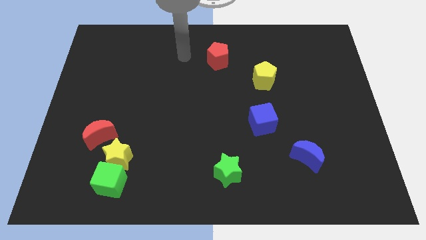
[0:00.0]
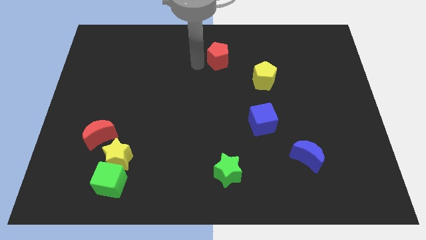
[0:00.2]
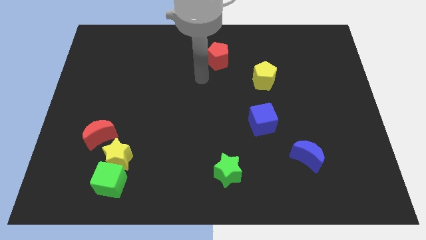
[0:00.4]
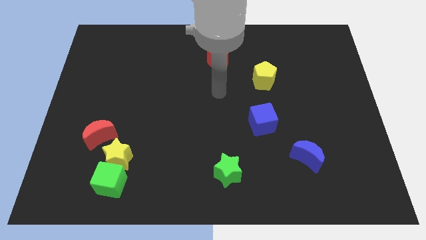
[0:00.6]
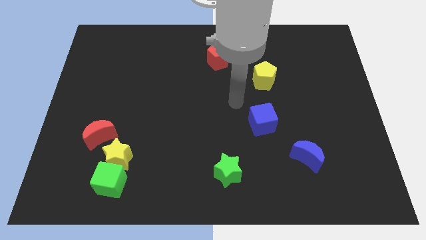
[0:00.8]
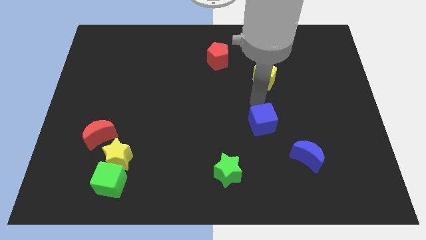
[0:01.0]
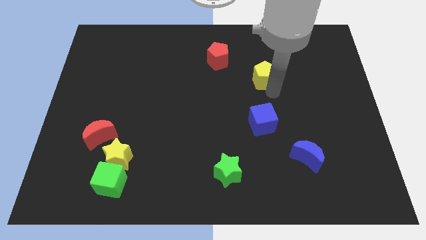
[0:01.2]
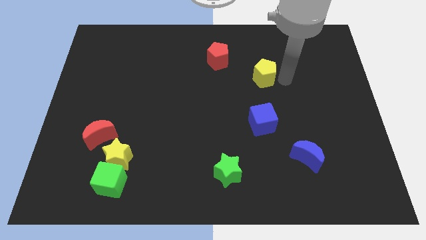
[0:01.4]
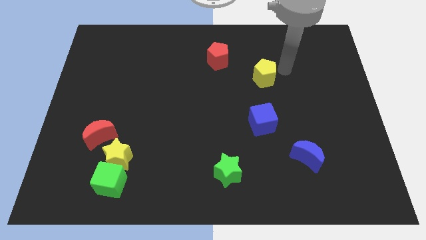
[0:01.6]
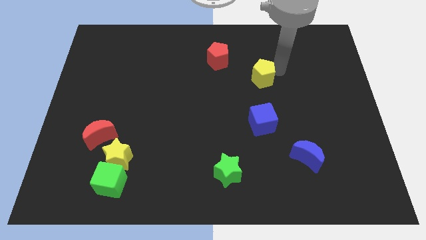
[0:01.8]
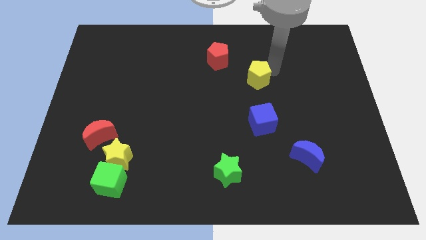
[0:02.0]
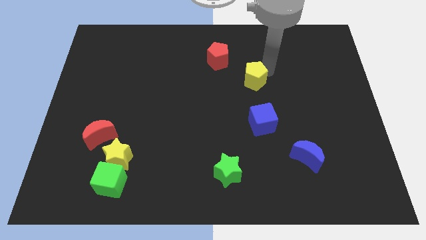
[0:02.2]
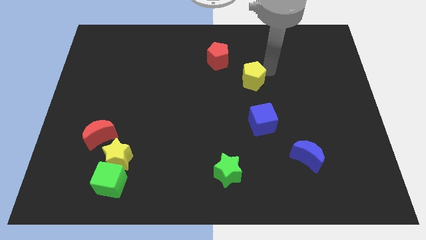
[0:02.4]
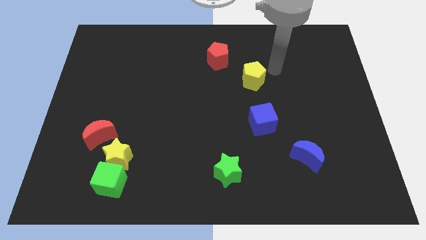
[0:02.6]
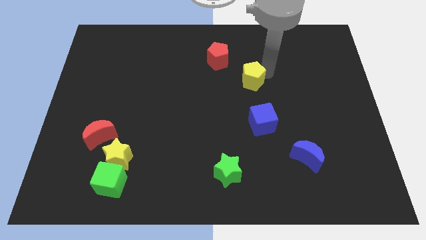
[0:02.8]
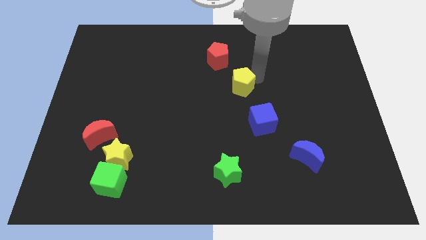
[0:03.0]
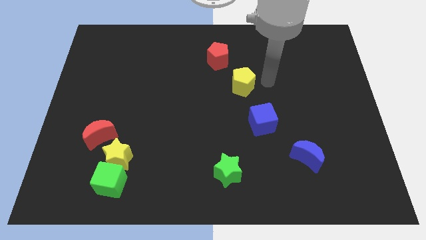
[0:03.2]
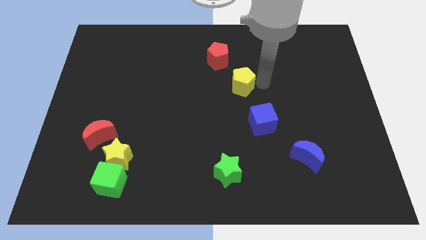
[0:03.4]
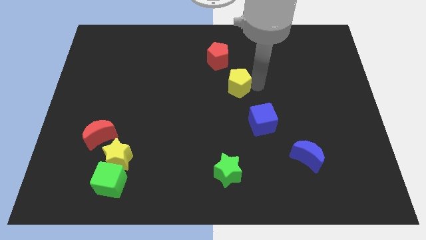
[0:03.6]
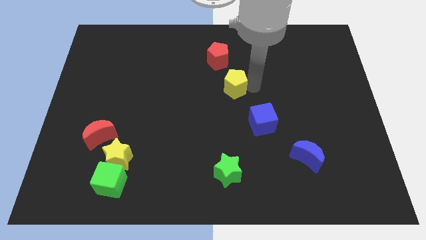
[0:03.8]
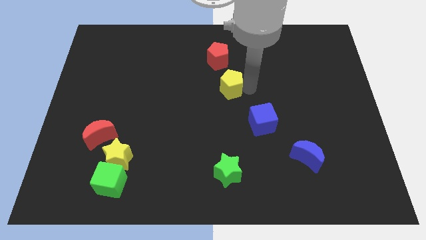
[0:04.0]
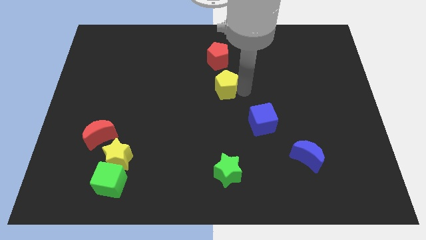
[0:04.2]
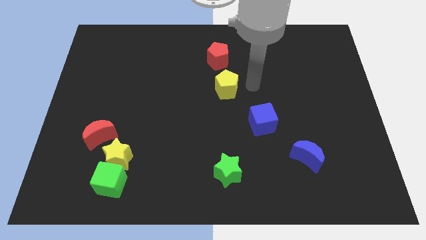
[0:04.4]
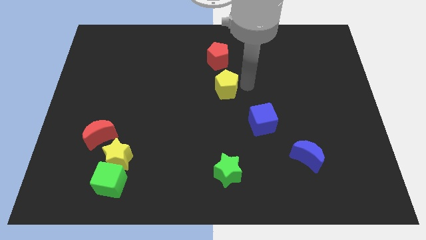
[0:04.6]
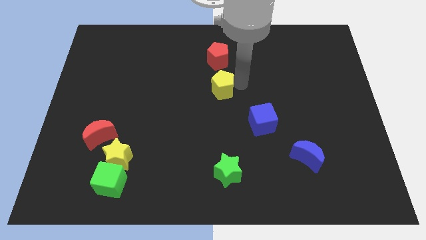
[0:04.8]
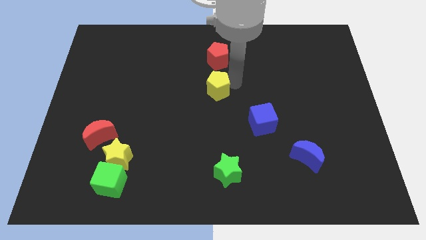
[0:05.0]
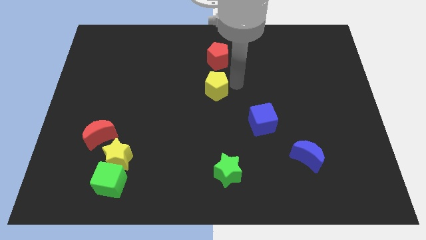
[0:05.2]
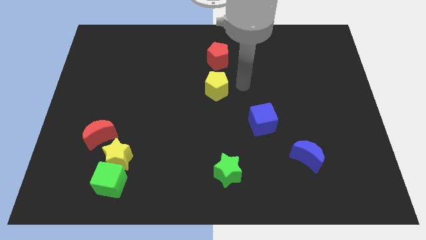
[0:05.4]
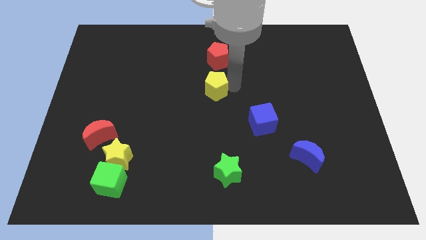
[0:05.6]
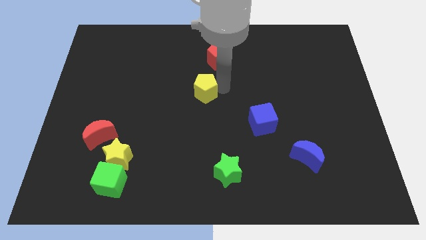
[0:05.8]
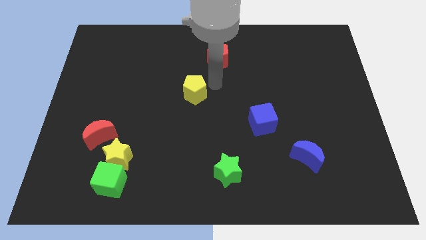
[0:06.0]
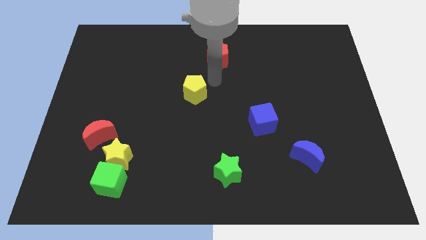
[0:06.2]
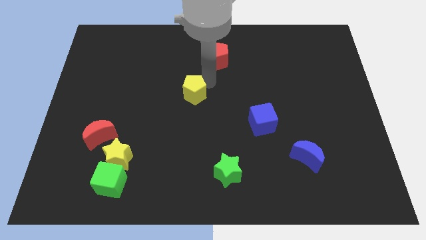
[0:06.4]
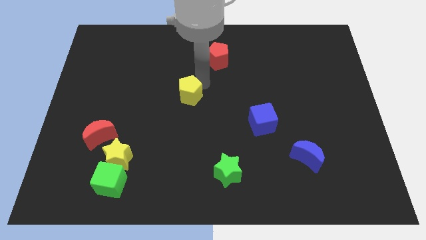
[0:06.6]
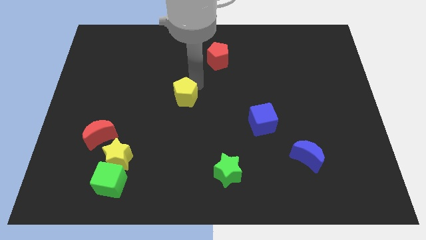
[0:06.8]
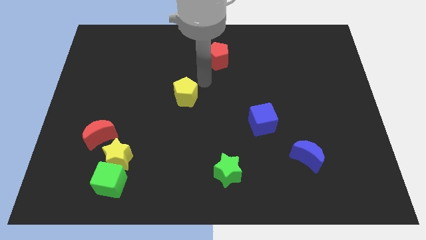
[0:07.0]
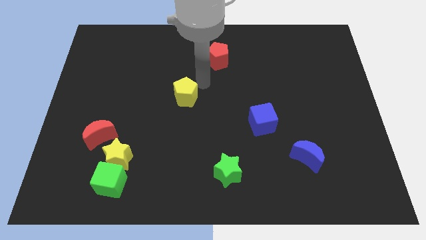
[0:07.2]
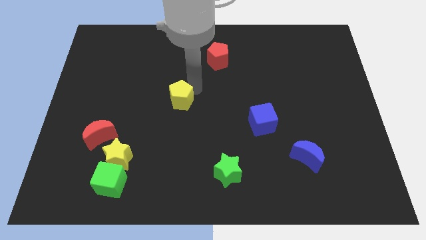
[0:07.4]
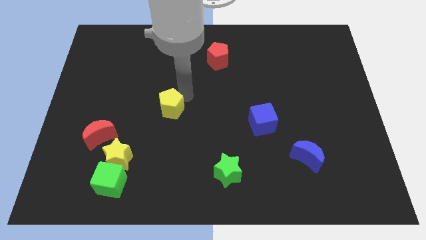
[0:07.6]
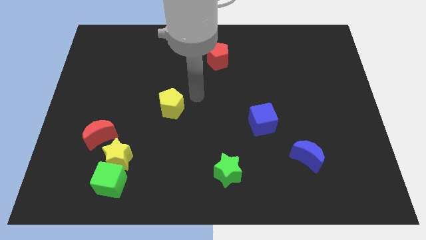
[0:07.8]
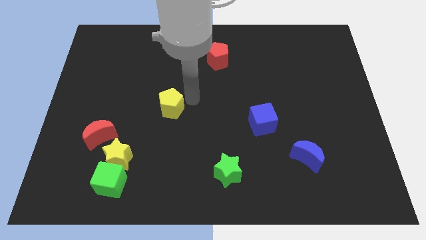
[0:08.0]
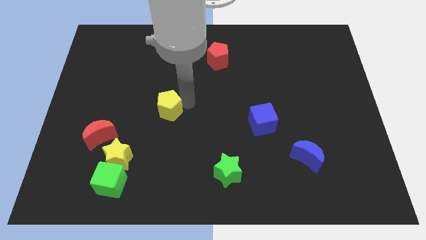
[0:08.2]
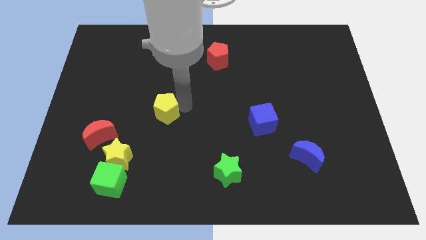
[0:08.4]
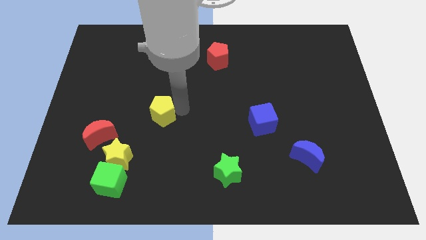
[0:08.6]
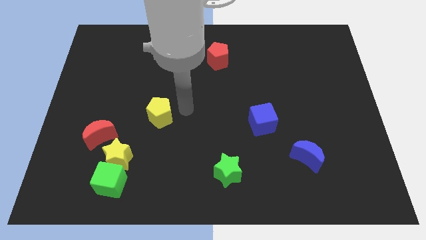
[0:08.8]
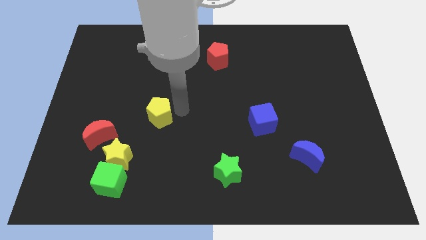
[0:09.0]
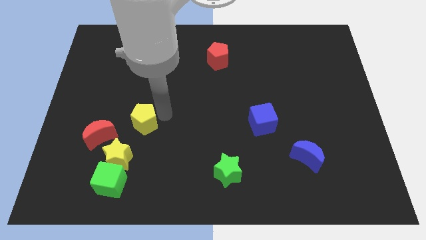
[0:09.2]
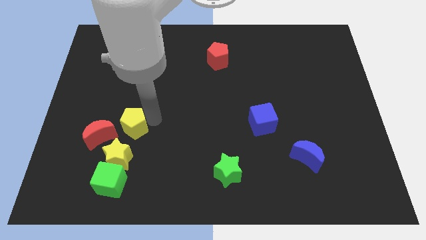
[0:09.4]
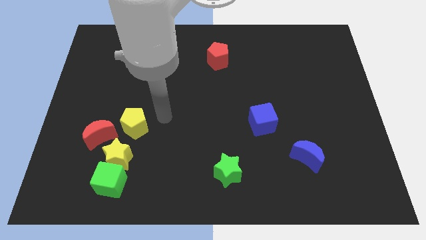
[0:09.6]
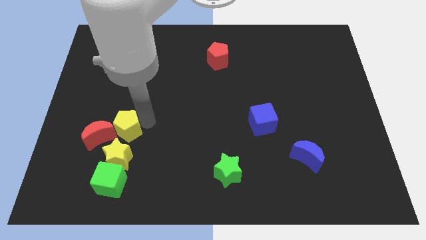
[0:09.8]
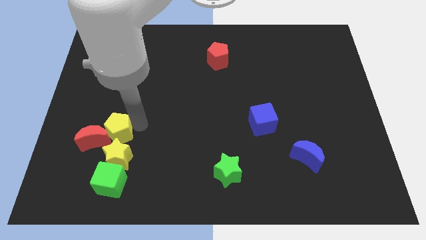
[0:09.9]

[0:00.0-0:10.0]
slide the yellow pentagon close to the red moon
